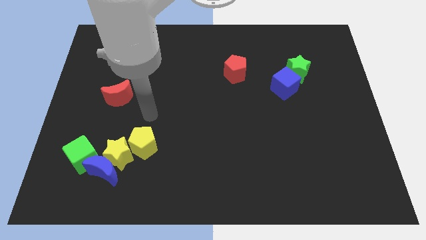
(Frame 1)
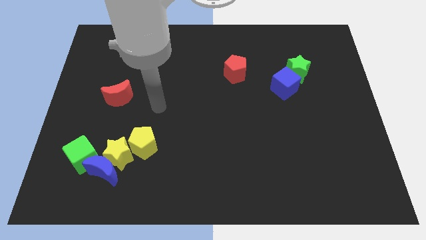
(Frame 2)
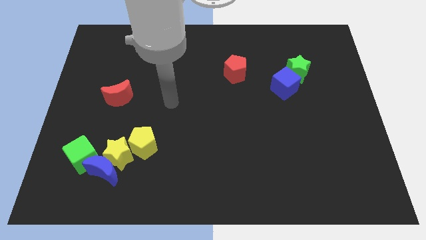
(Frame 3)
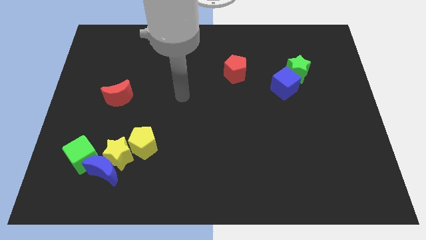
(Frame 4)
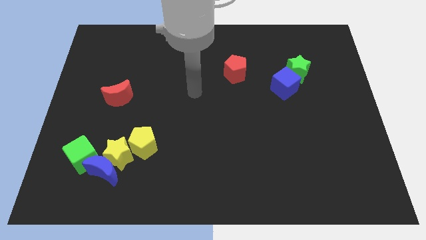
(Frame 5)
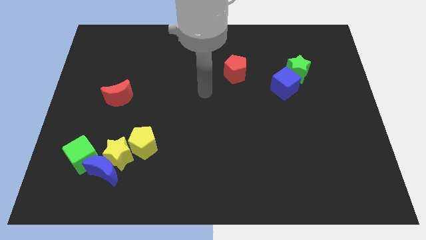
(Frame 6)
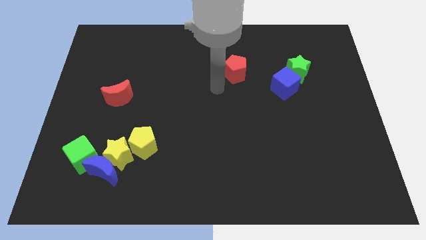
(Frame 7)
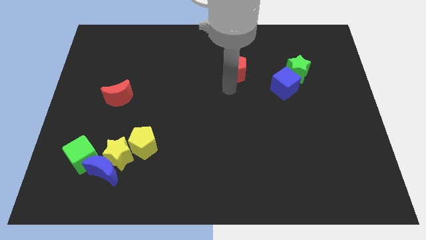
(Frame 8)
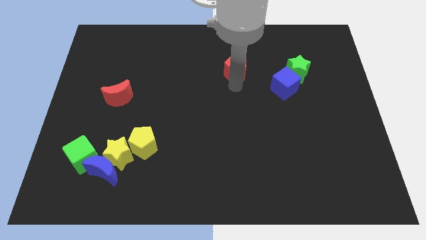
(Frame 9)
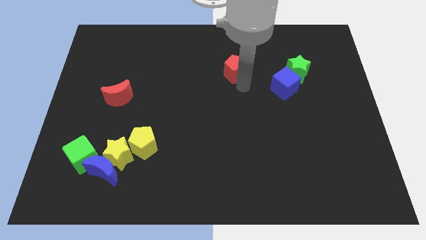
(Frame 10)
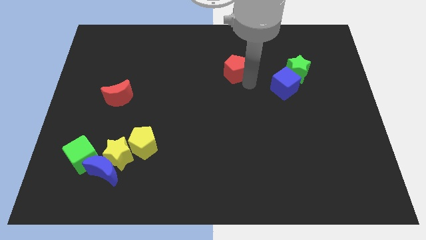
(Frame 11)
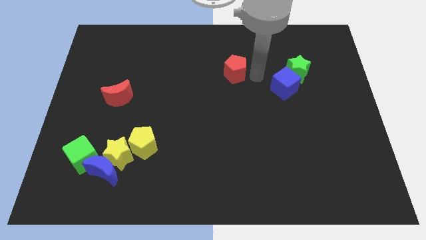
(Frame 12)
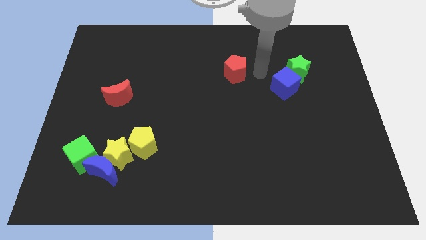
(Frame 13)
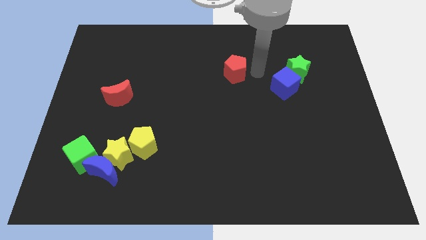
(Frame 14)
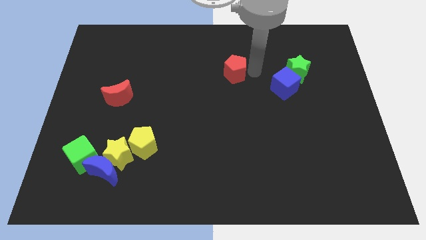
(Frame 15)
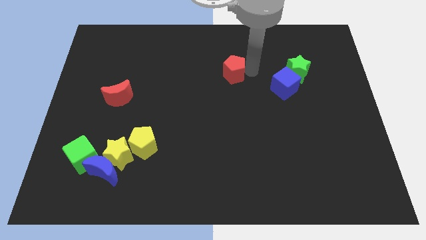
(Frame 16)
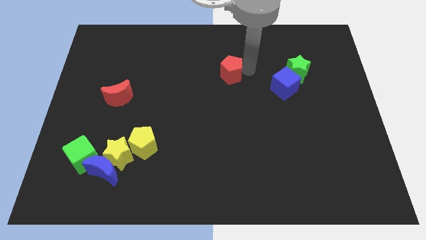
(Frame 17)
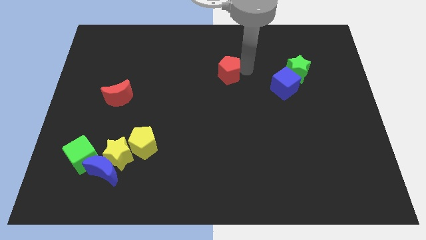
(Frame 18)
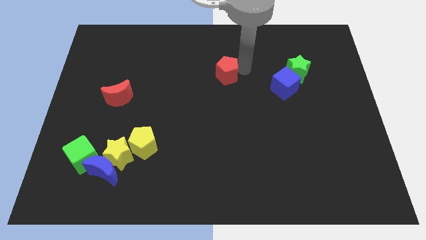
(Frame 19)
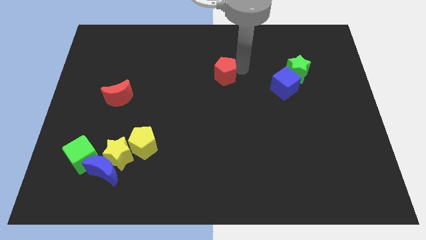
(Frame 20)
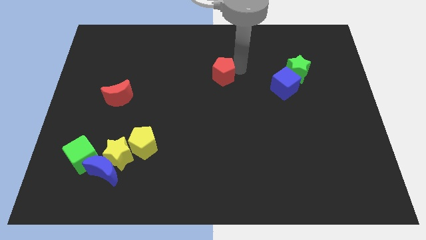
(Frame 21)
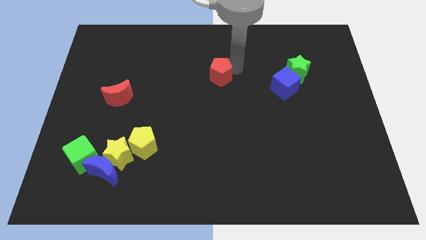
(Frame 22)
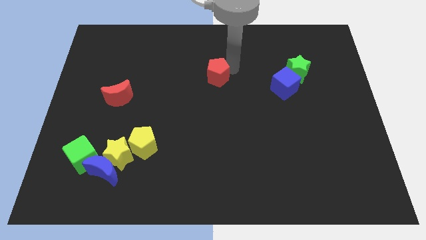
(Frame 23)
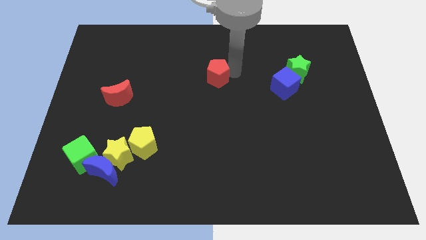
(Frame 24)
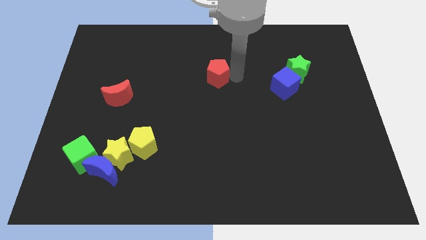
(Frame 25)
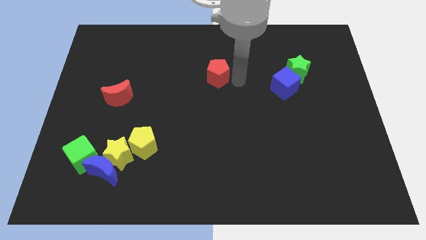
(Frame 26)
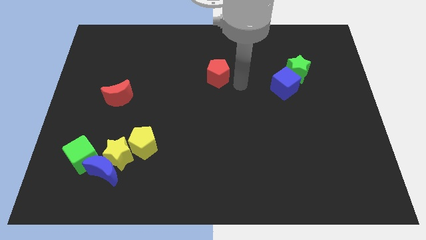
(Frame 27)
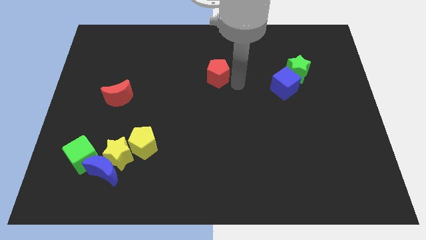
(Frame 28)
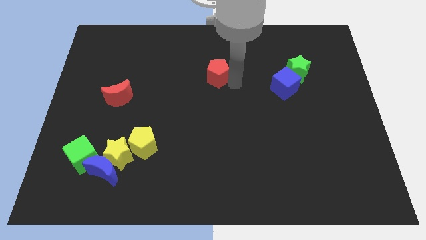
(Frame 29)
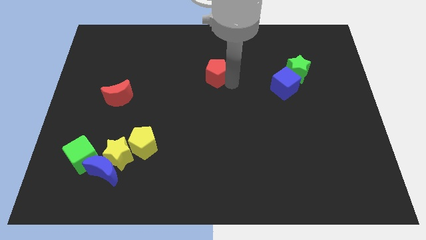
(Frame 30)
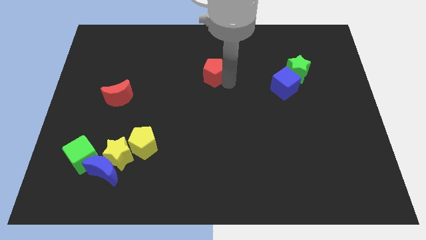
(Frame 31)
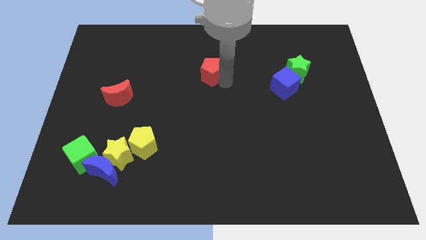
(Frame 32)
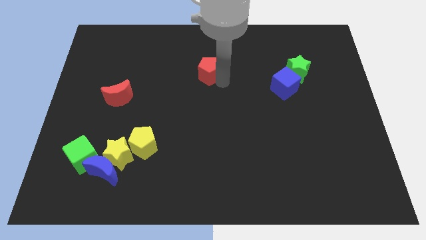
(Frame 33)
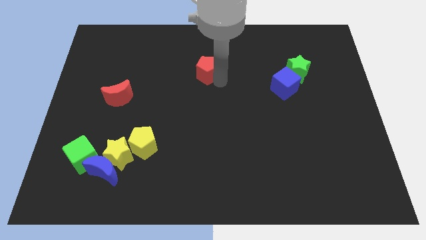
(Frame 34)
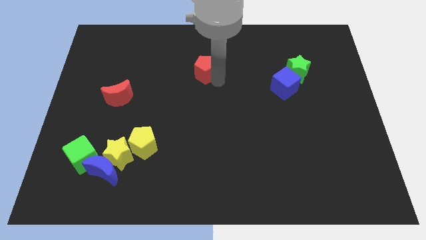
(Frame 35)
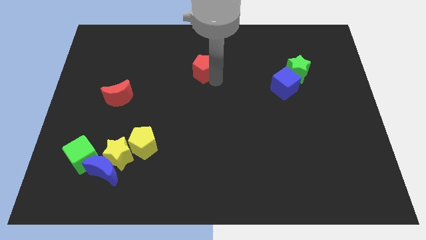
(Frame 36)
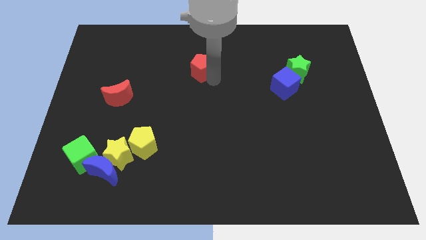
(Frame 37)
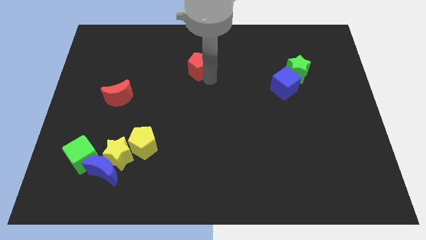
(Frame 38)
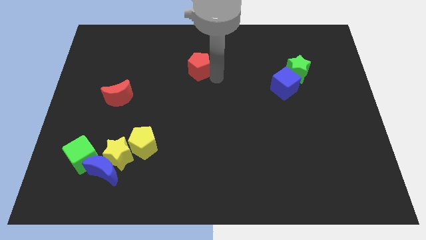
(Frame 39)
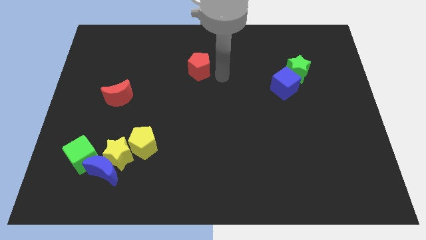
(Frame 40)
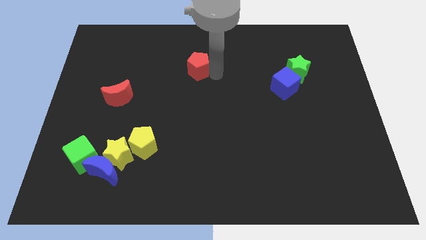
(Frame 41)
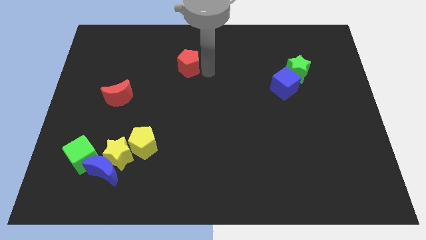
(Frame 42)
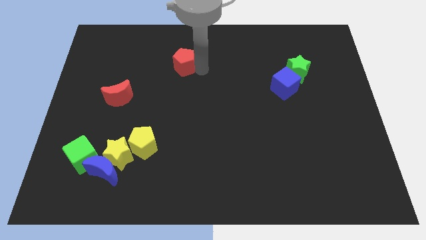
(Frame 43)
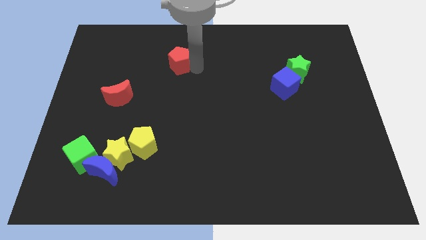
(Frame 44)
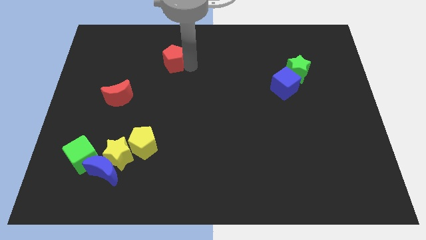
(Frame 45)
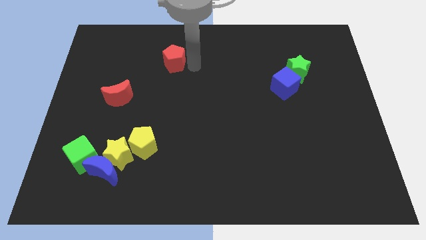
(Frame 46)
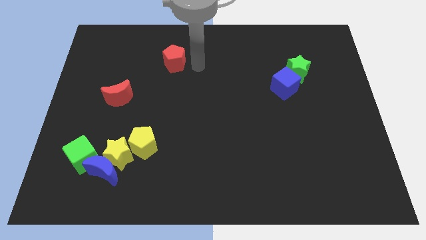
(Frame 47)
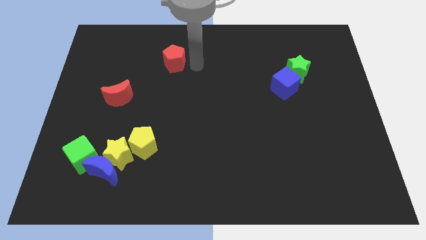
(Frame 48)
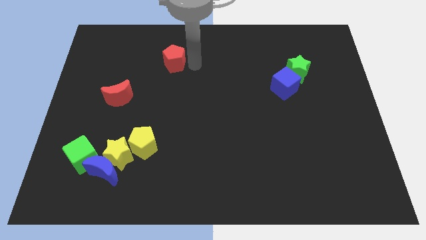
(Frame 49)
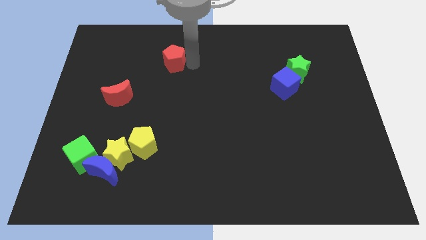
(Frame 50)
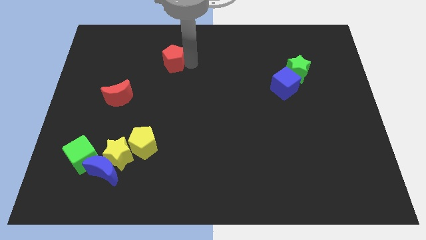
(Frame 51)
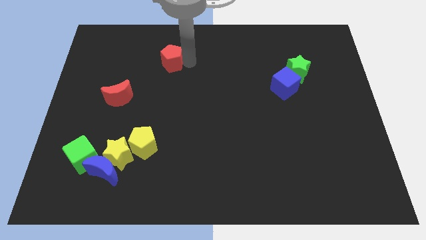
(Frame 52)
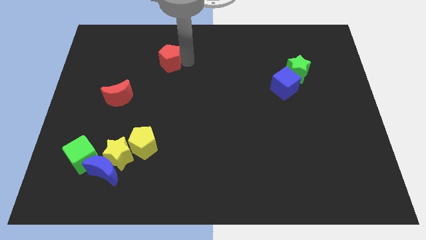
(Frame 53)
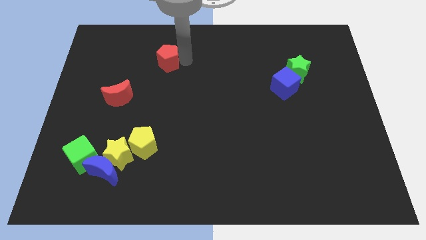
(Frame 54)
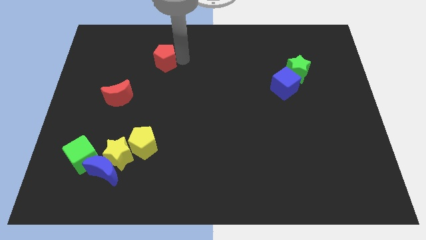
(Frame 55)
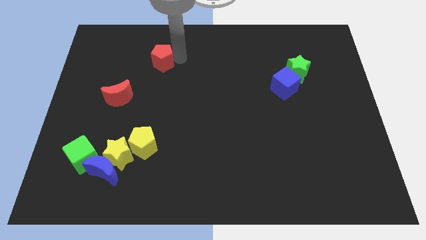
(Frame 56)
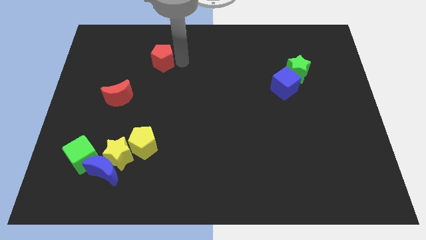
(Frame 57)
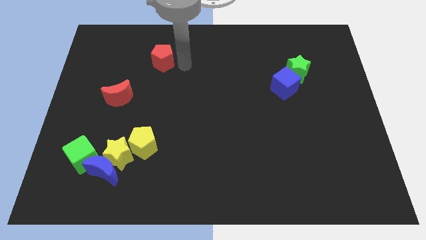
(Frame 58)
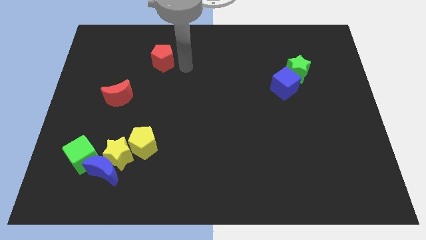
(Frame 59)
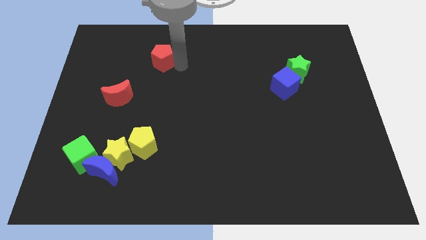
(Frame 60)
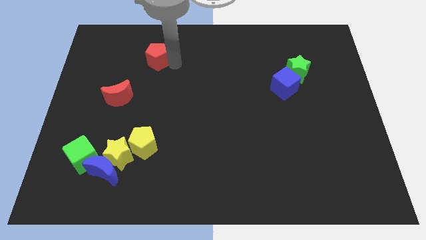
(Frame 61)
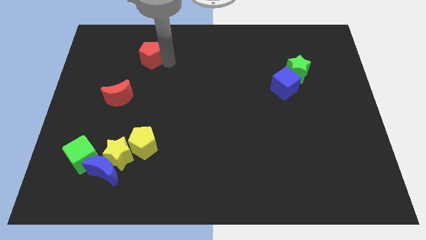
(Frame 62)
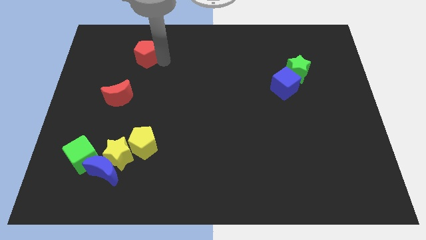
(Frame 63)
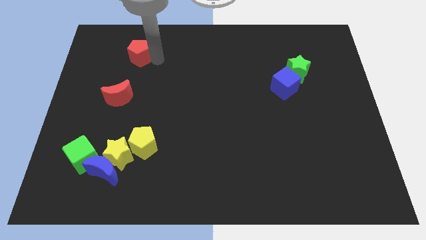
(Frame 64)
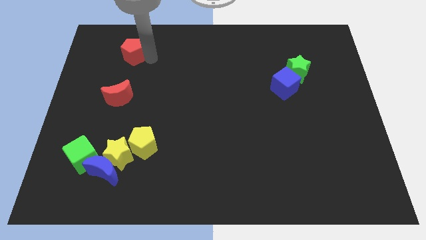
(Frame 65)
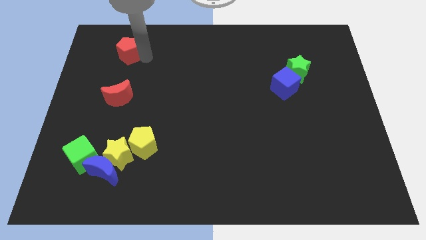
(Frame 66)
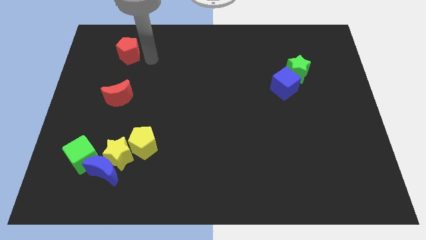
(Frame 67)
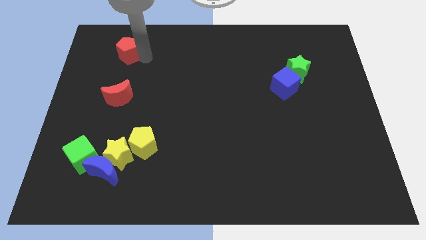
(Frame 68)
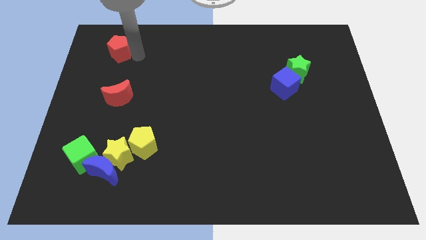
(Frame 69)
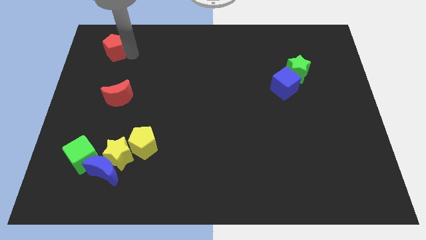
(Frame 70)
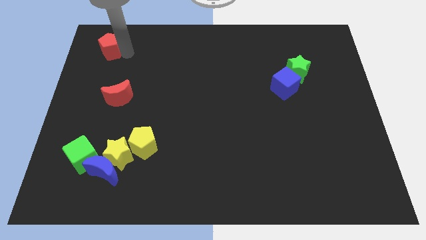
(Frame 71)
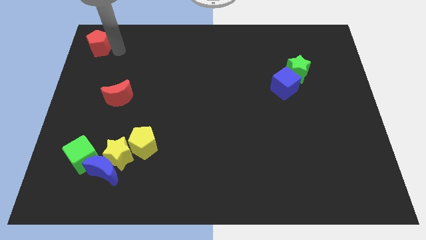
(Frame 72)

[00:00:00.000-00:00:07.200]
move the red pentagon to the top left of the board
